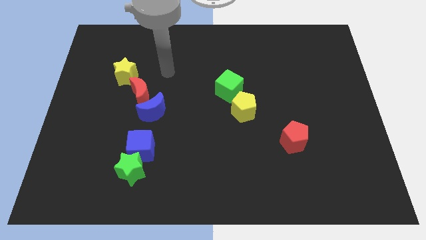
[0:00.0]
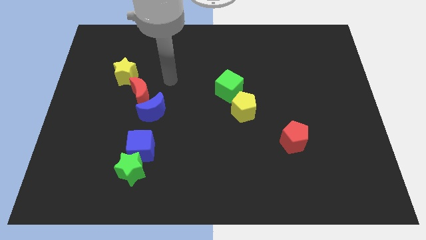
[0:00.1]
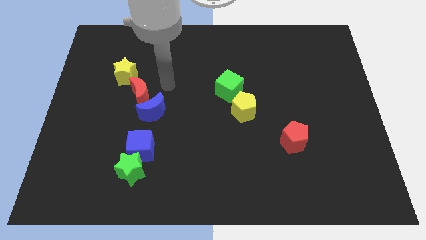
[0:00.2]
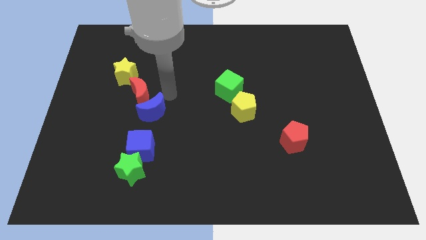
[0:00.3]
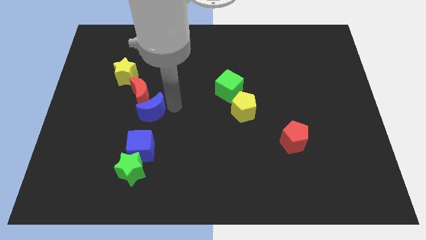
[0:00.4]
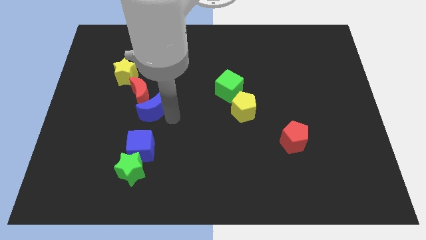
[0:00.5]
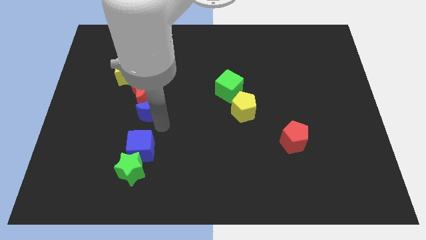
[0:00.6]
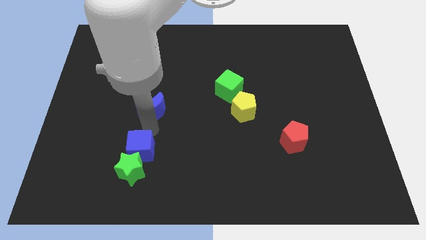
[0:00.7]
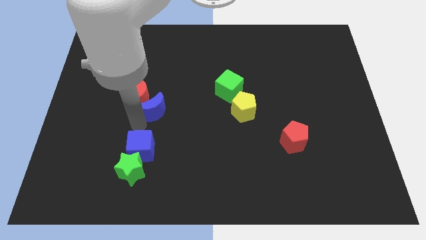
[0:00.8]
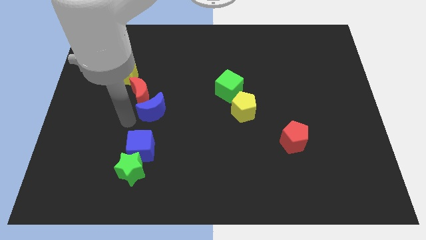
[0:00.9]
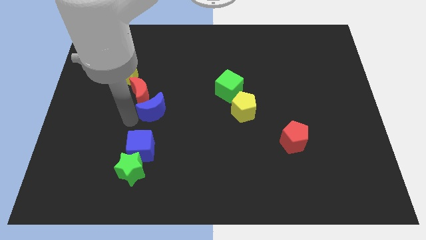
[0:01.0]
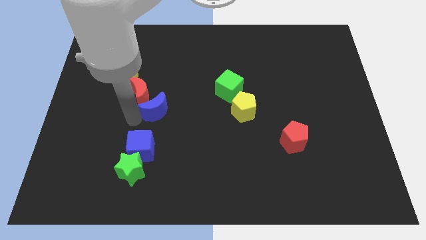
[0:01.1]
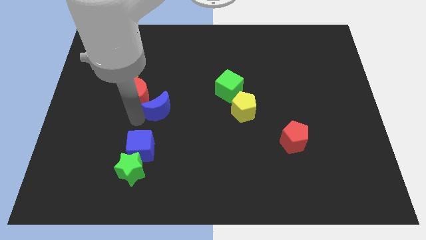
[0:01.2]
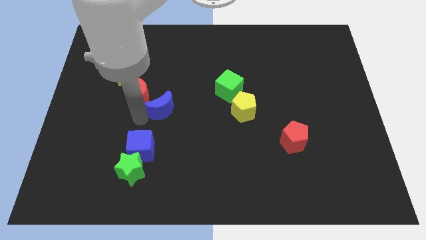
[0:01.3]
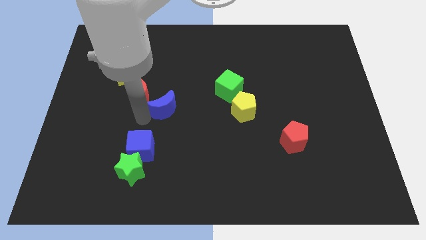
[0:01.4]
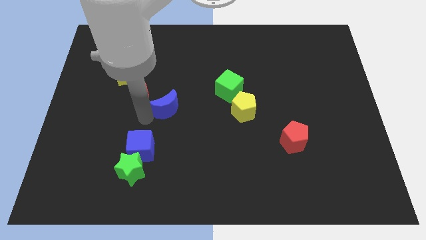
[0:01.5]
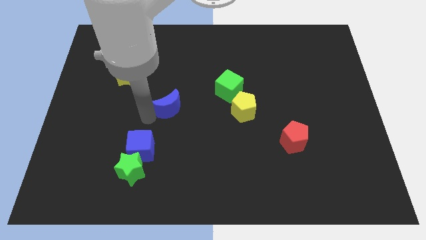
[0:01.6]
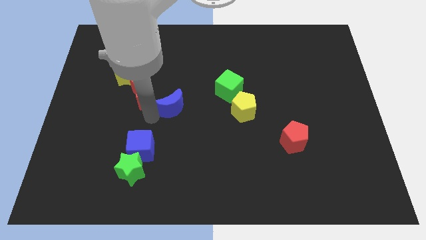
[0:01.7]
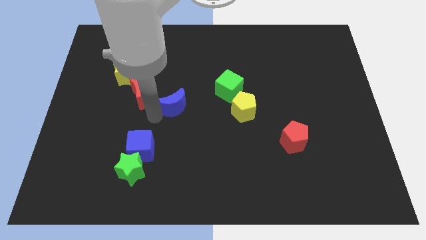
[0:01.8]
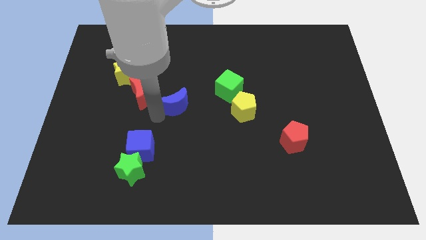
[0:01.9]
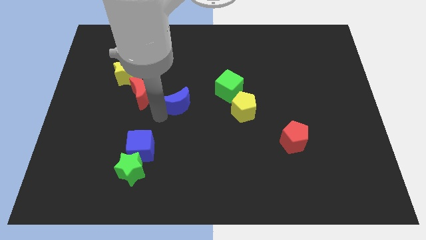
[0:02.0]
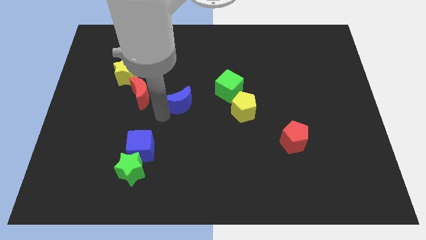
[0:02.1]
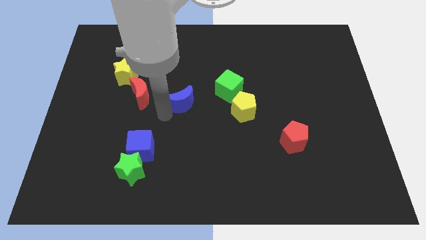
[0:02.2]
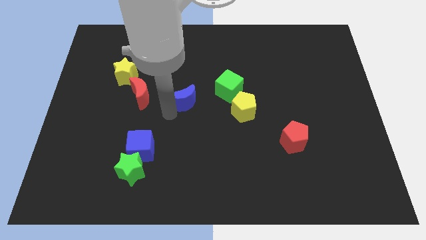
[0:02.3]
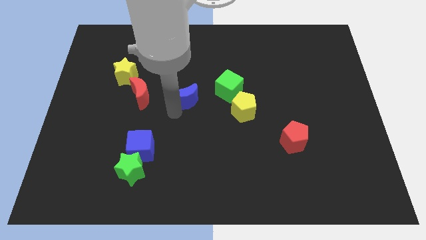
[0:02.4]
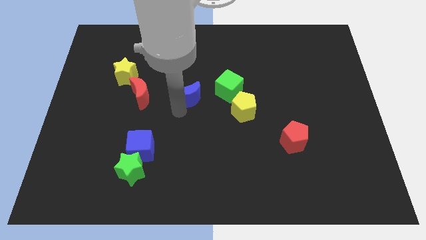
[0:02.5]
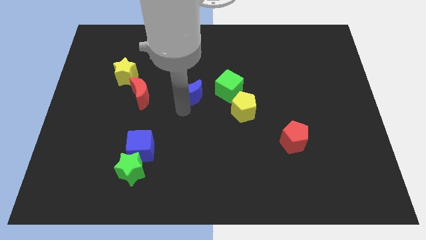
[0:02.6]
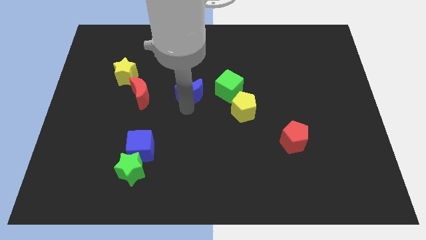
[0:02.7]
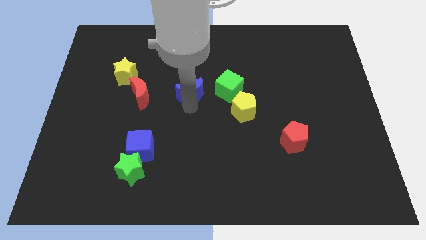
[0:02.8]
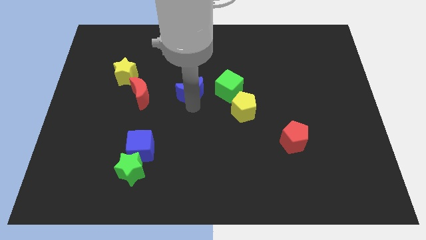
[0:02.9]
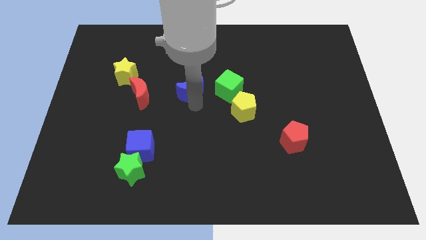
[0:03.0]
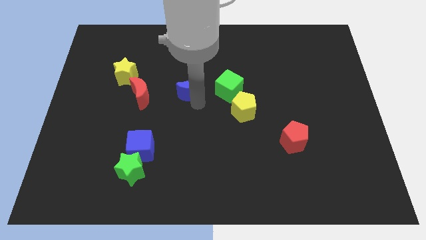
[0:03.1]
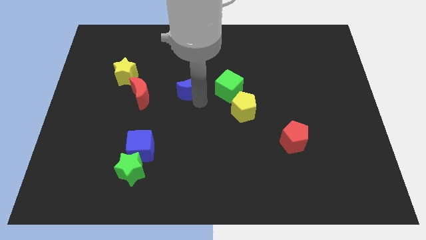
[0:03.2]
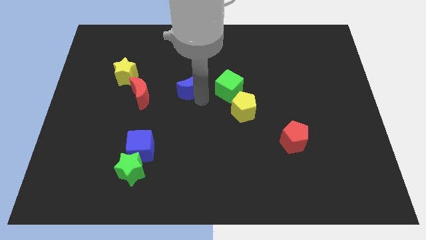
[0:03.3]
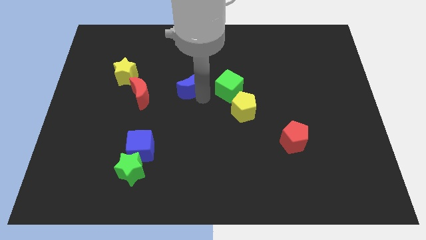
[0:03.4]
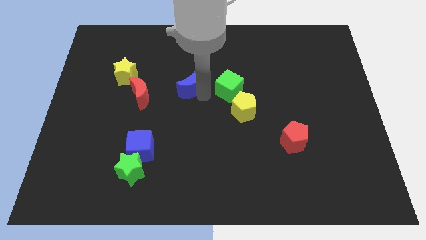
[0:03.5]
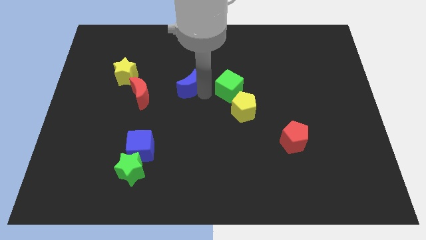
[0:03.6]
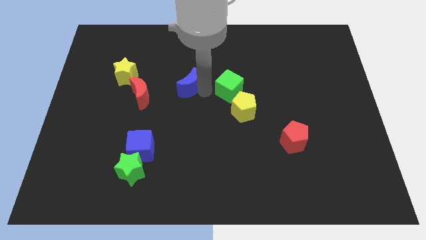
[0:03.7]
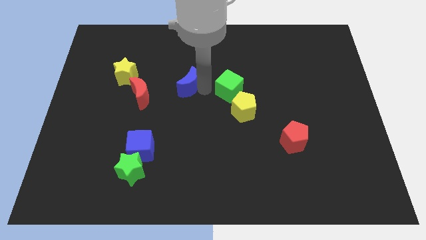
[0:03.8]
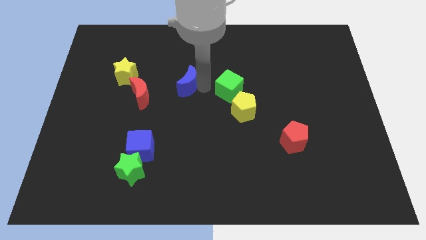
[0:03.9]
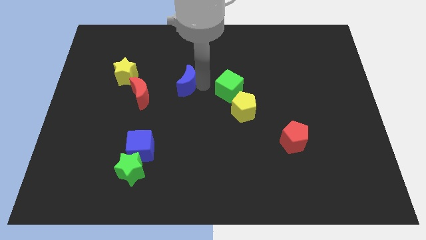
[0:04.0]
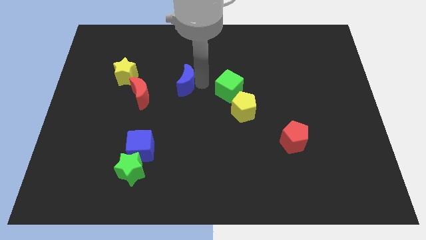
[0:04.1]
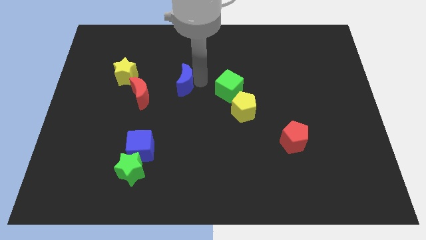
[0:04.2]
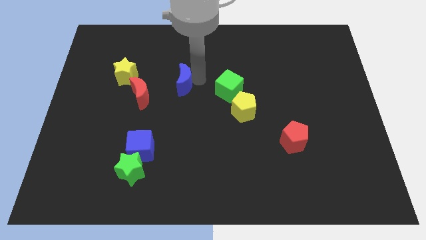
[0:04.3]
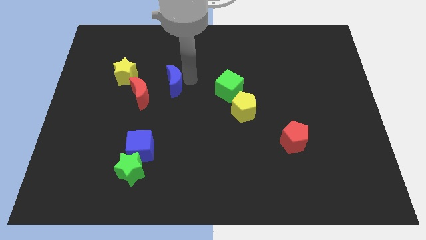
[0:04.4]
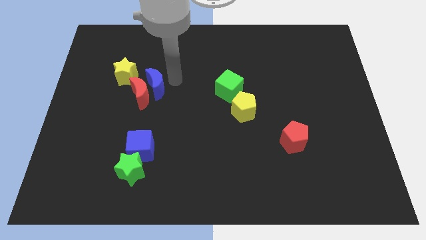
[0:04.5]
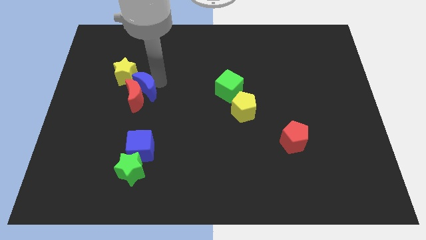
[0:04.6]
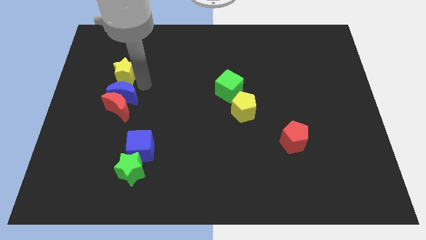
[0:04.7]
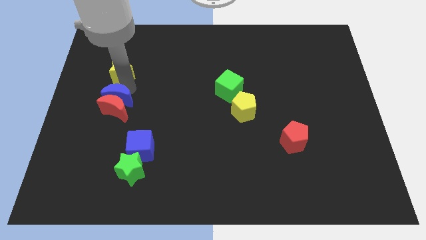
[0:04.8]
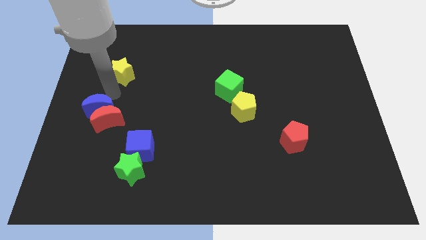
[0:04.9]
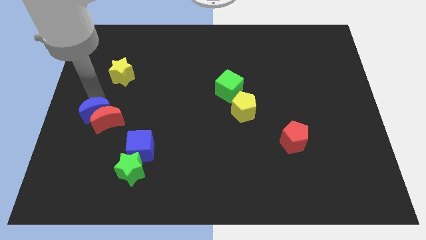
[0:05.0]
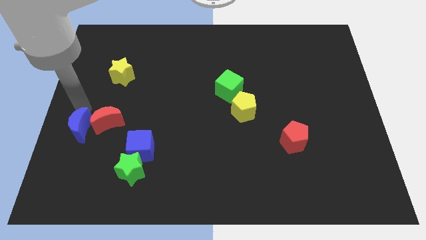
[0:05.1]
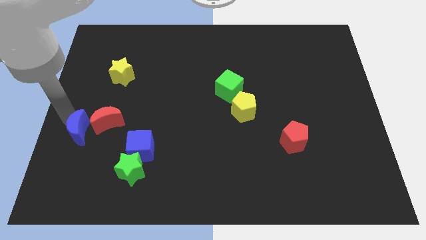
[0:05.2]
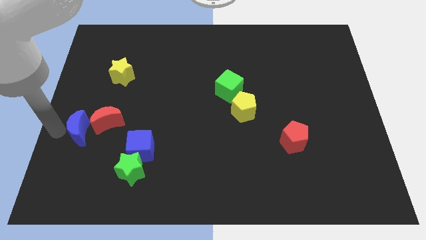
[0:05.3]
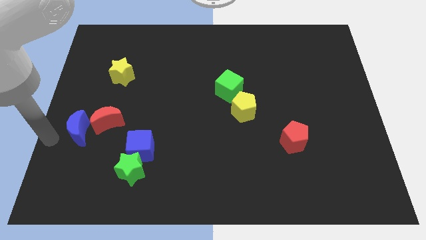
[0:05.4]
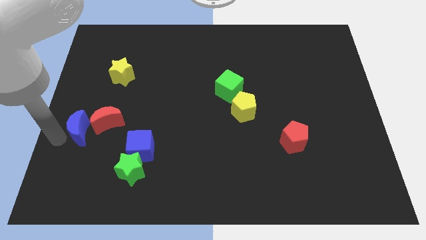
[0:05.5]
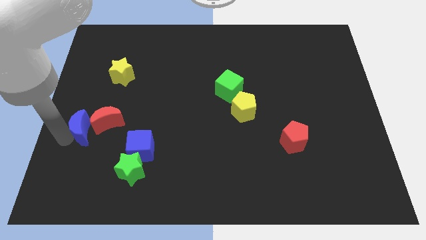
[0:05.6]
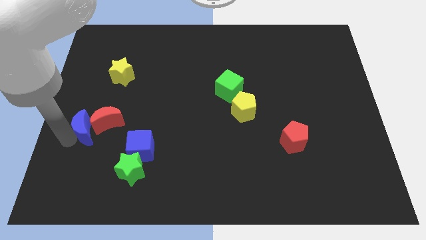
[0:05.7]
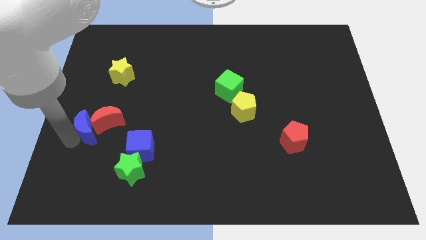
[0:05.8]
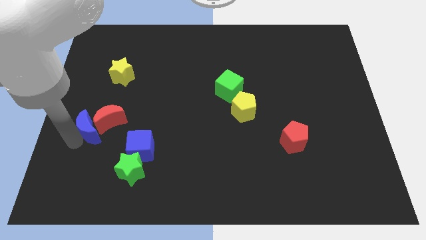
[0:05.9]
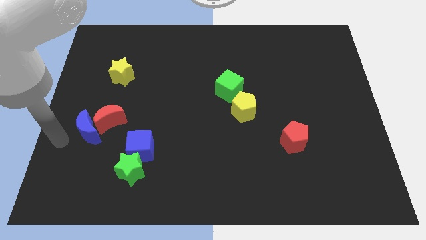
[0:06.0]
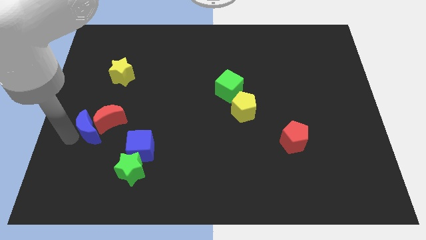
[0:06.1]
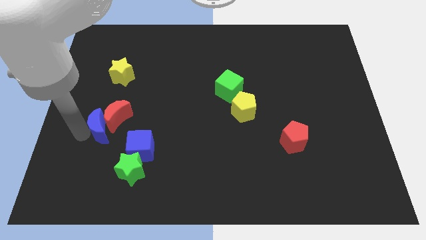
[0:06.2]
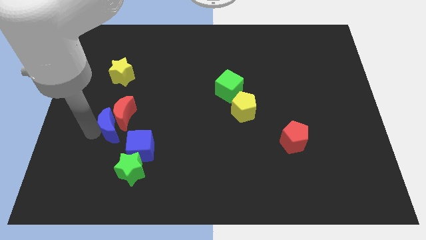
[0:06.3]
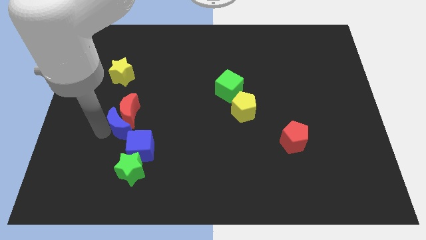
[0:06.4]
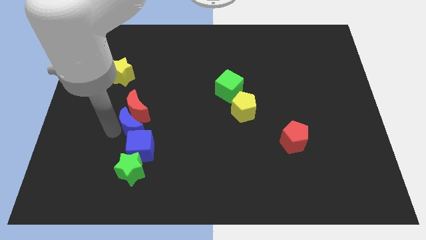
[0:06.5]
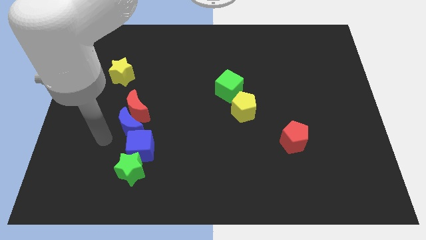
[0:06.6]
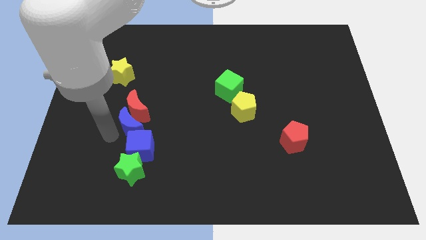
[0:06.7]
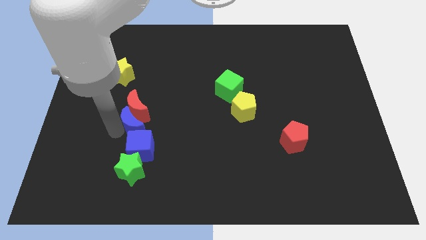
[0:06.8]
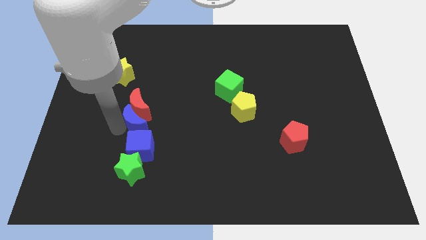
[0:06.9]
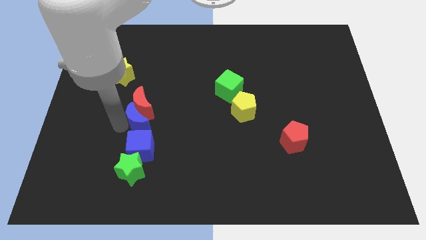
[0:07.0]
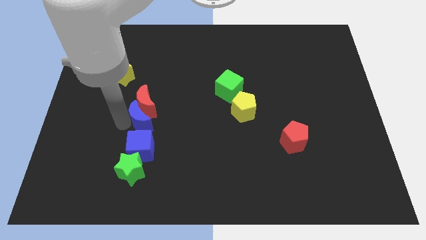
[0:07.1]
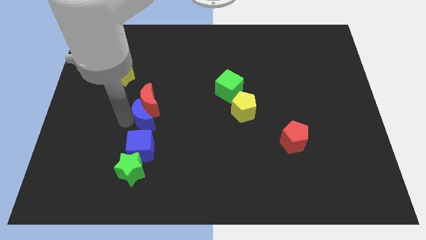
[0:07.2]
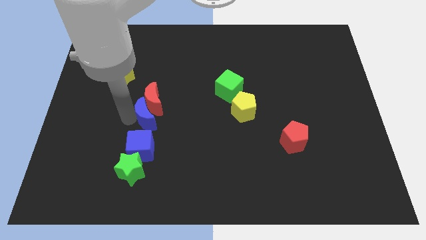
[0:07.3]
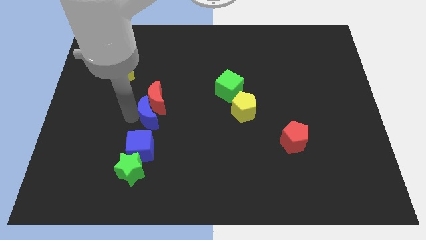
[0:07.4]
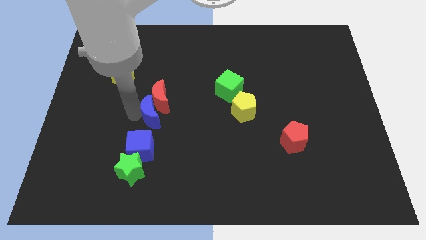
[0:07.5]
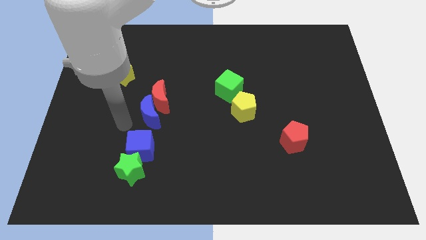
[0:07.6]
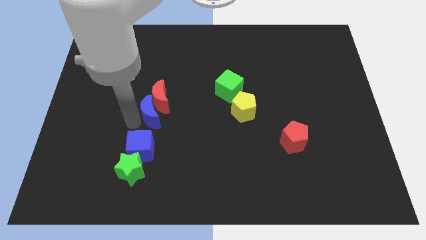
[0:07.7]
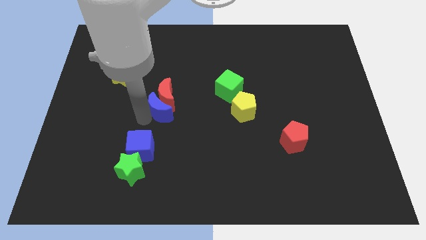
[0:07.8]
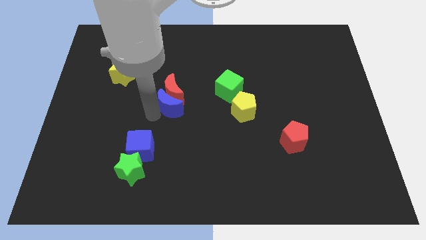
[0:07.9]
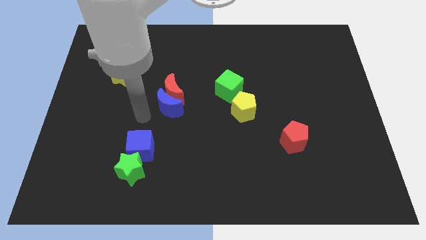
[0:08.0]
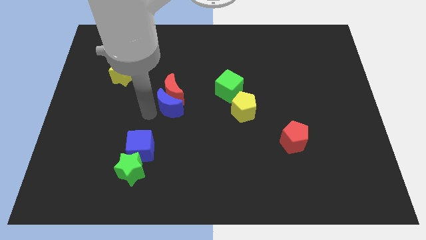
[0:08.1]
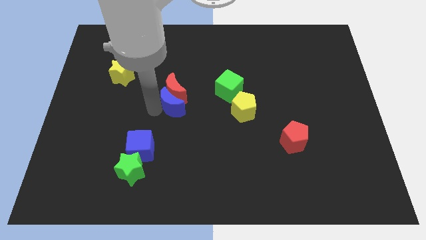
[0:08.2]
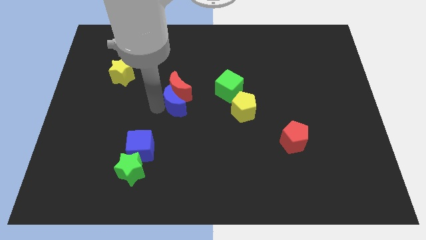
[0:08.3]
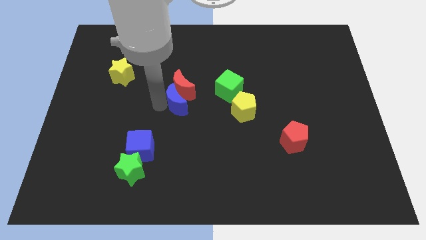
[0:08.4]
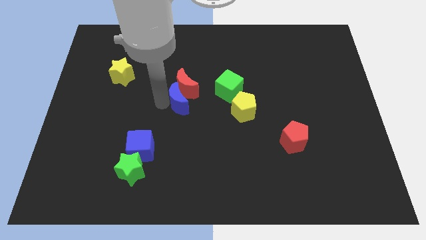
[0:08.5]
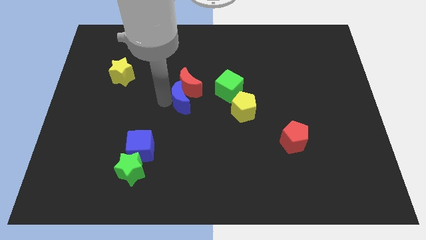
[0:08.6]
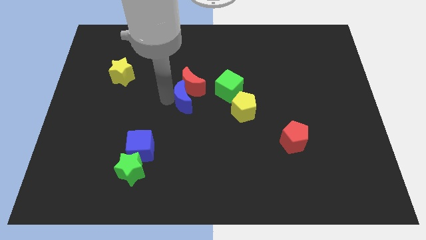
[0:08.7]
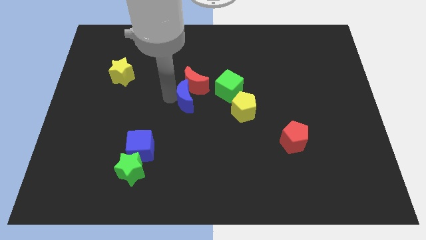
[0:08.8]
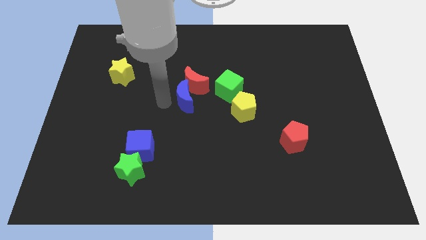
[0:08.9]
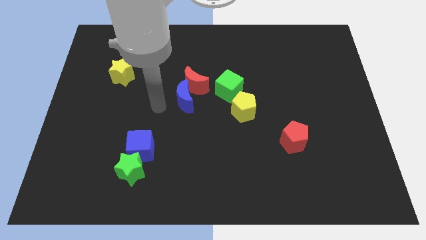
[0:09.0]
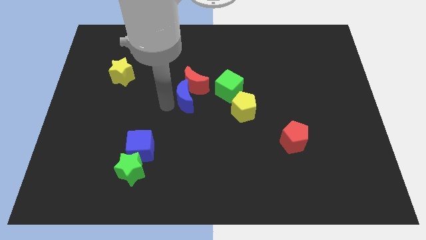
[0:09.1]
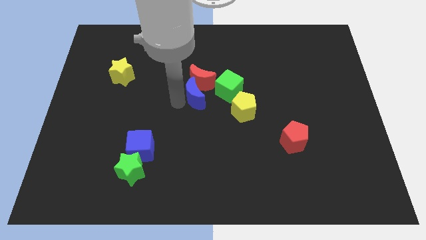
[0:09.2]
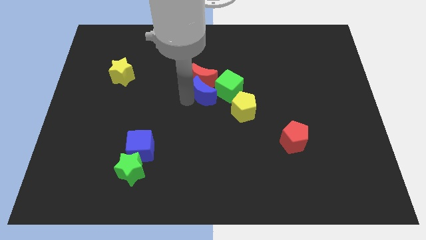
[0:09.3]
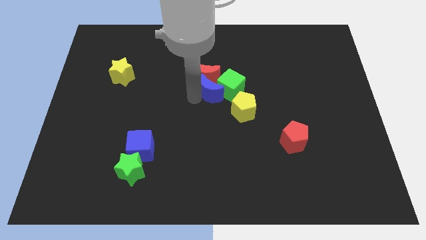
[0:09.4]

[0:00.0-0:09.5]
push the blue moon towards the green cube
